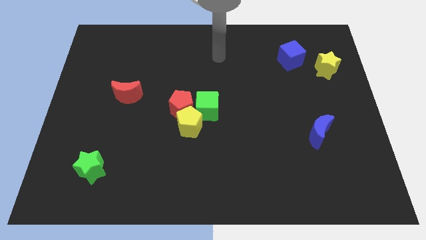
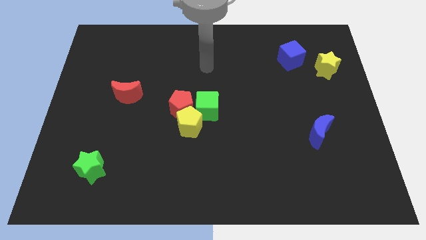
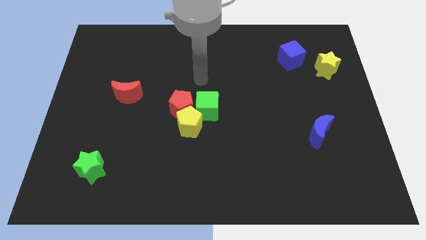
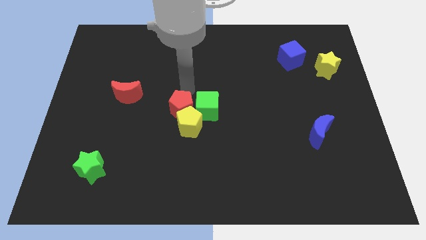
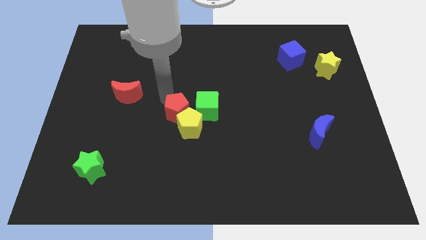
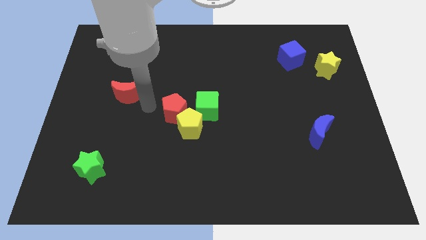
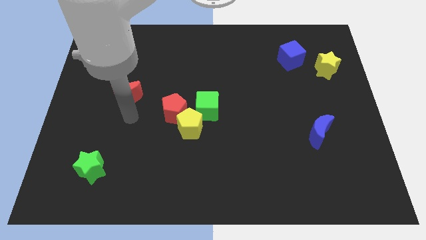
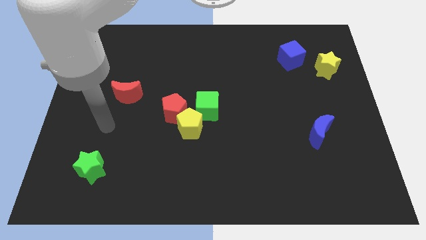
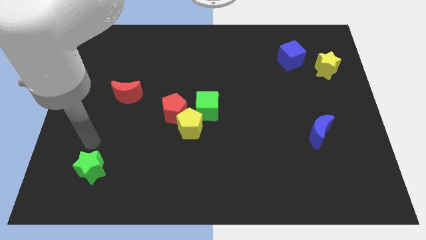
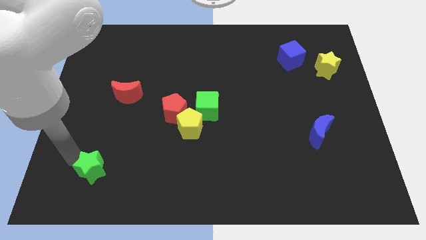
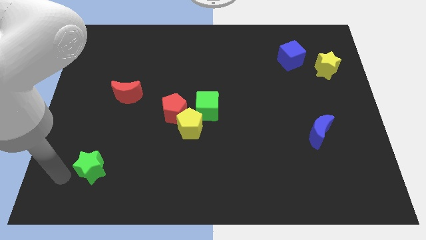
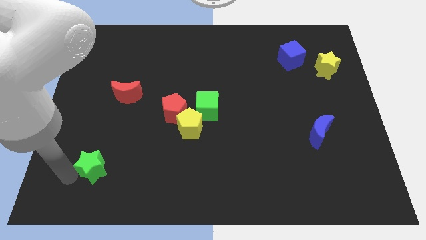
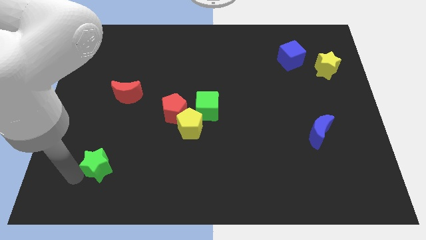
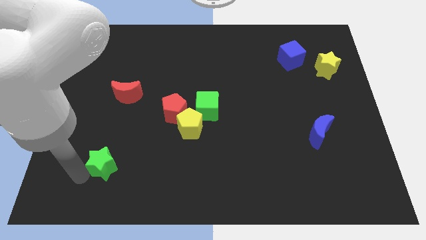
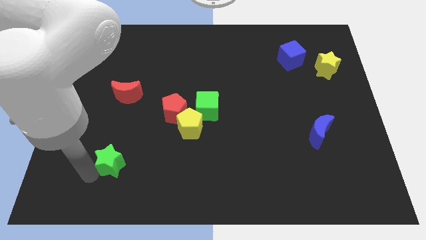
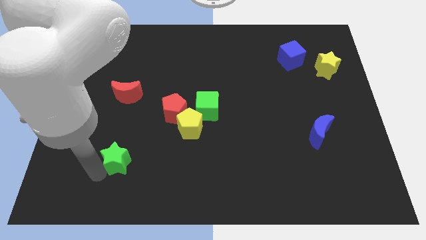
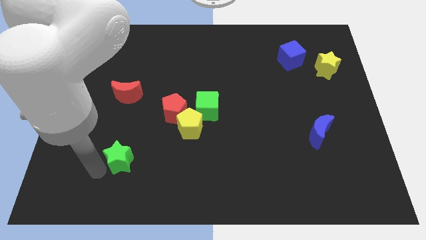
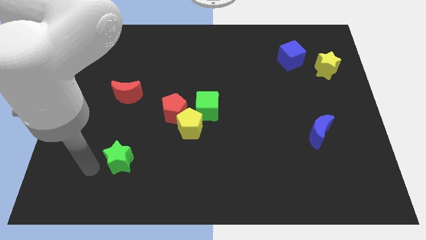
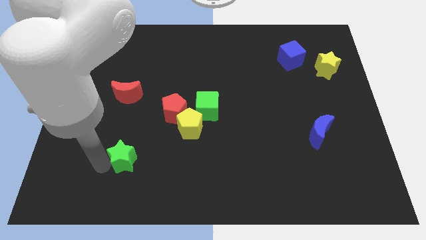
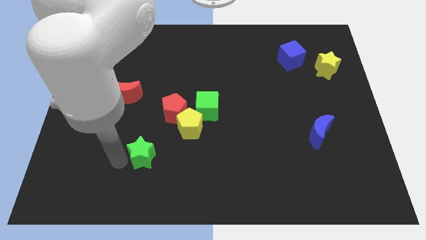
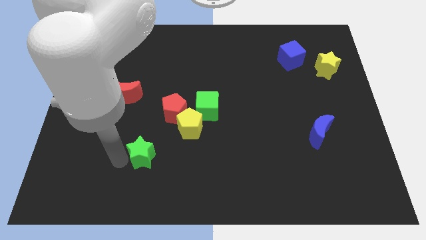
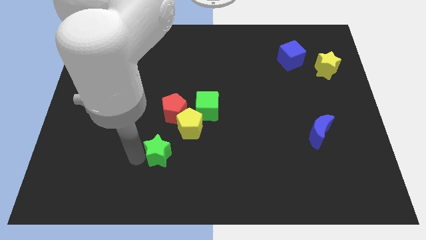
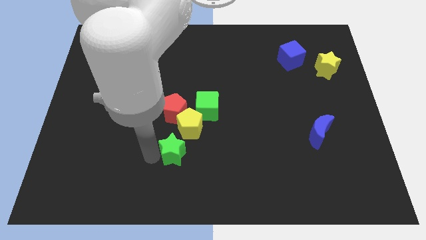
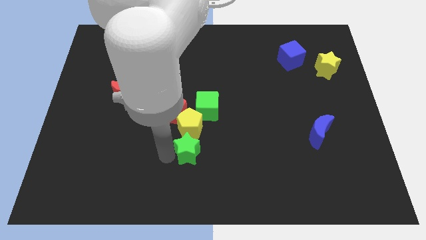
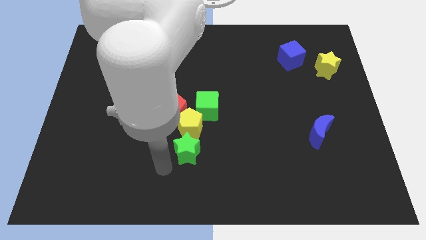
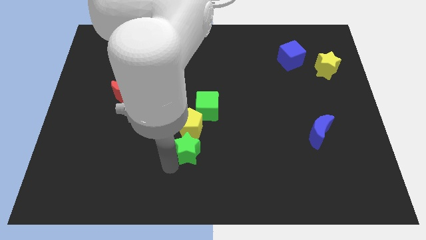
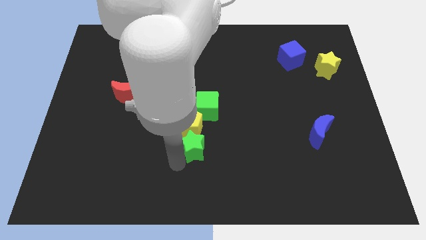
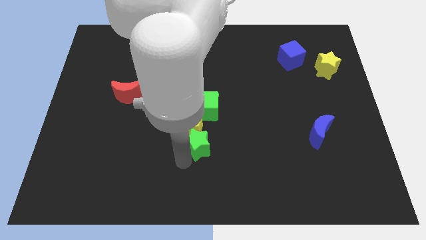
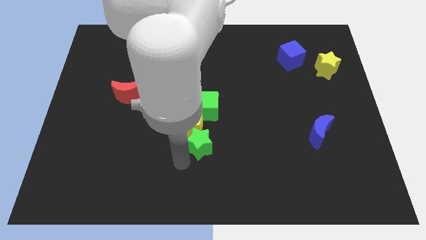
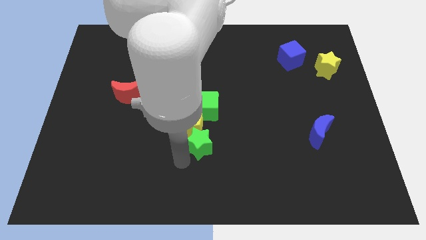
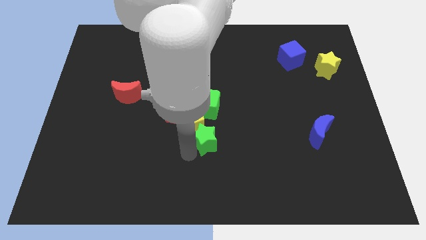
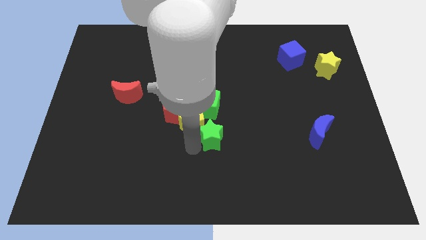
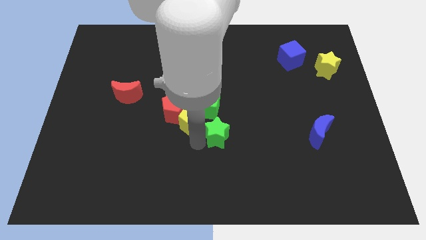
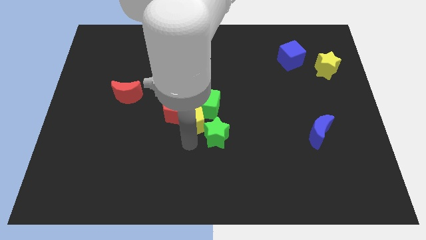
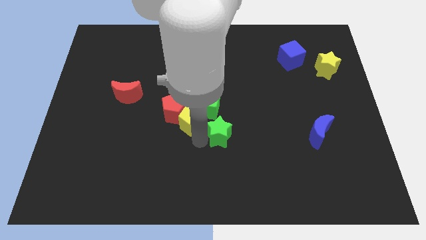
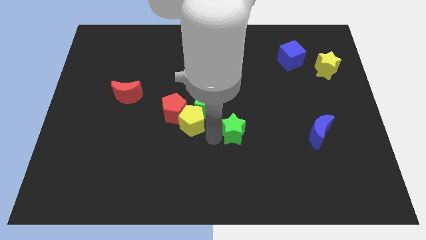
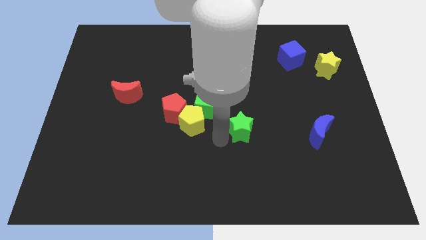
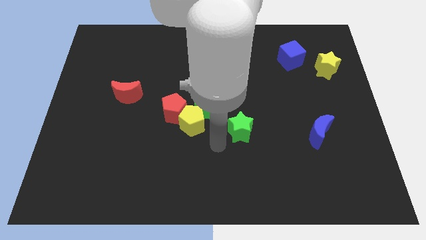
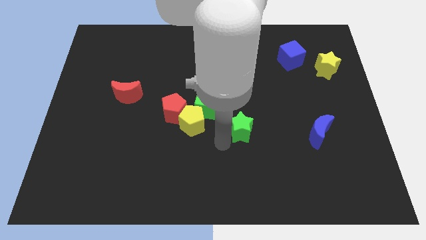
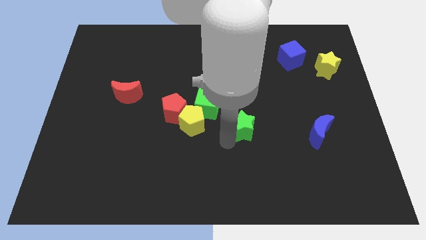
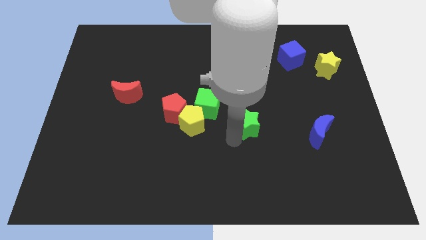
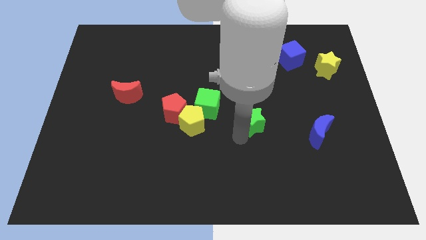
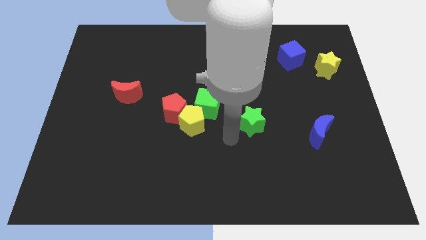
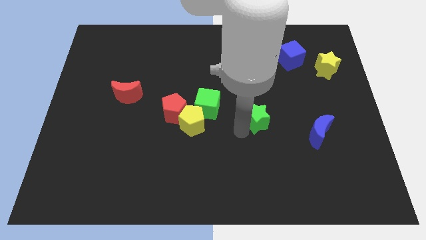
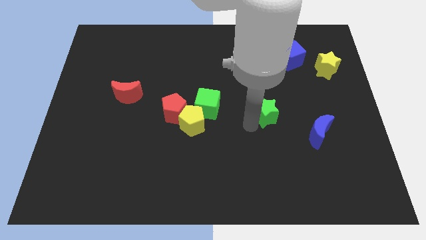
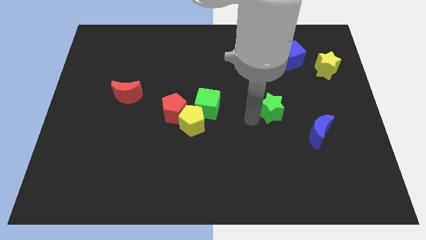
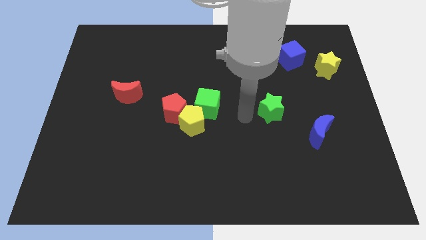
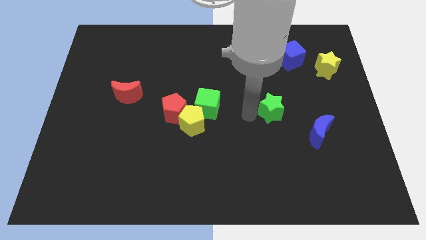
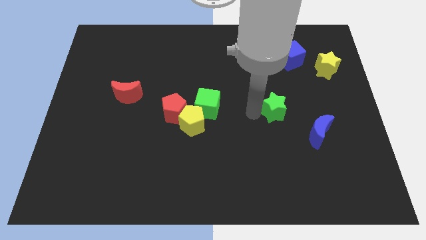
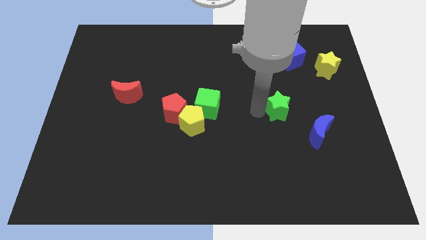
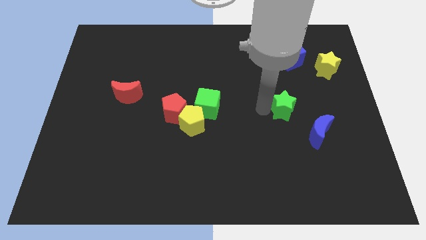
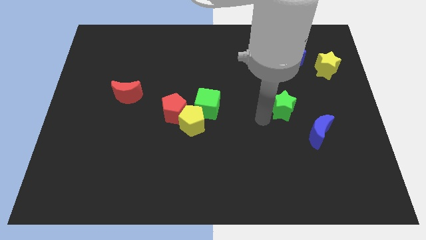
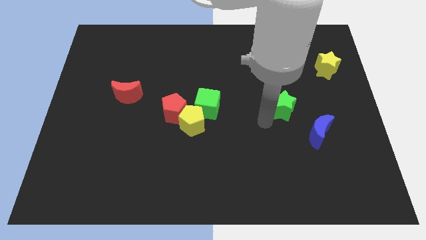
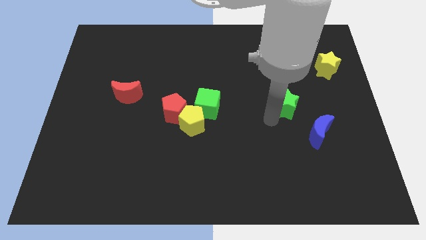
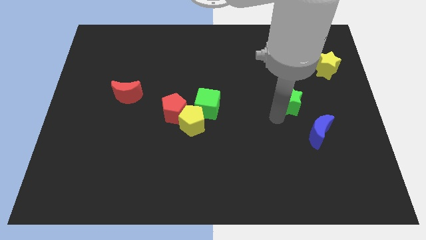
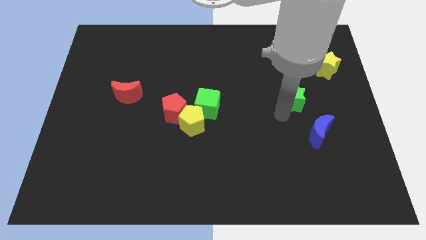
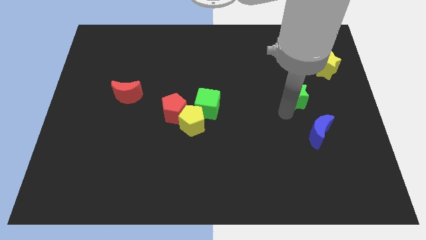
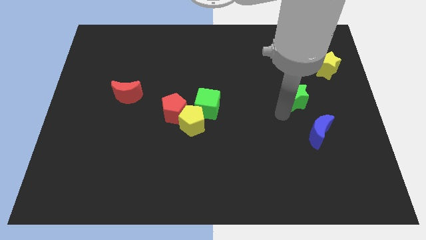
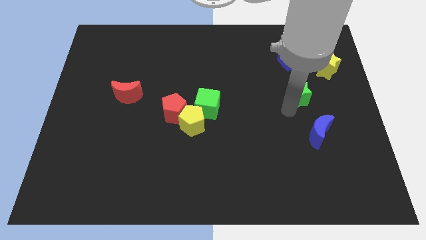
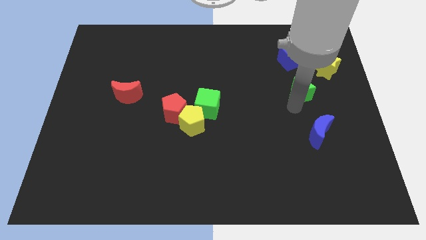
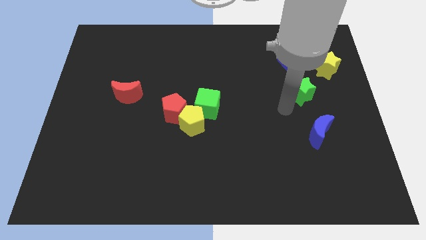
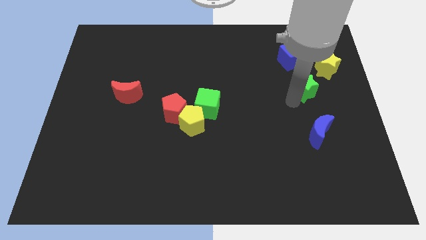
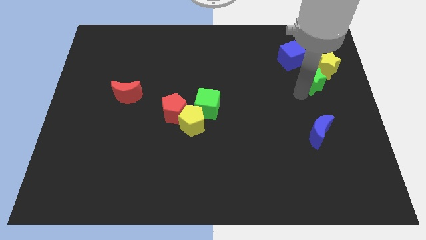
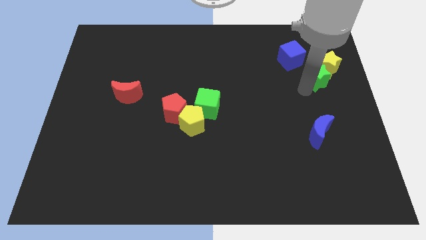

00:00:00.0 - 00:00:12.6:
slide the green star next to the yellow star
